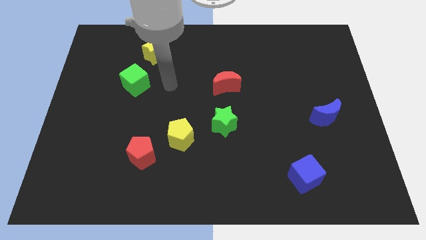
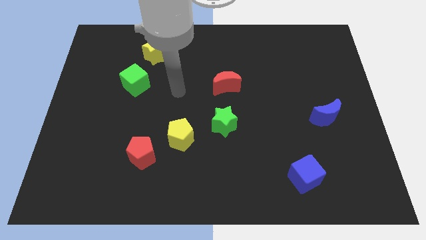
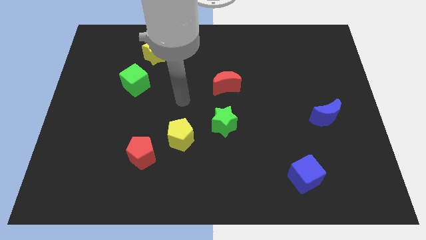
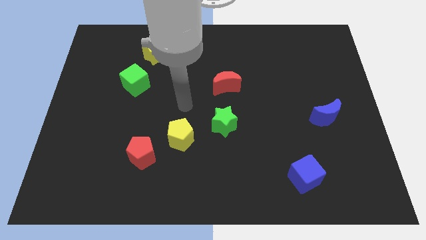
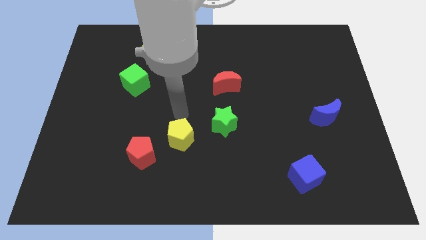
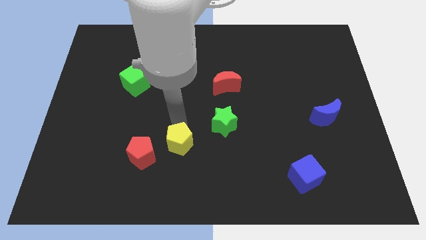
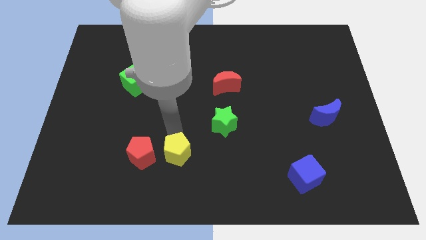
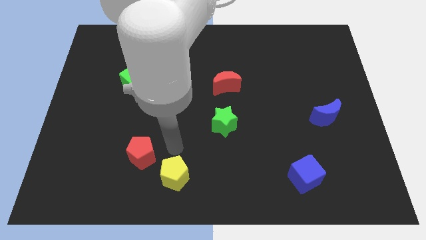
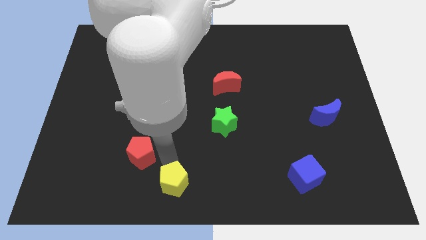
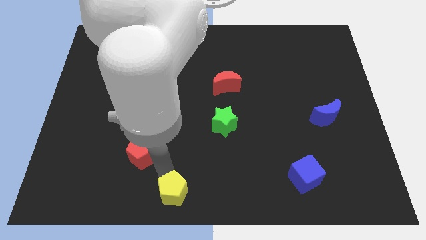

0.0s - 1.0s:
pull the red pentagon apart from the yellow pentagon

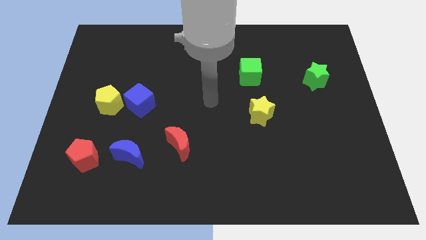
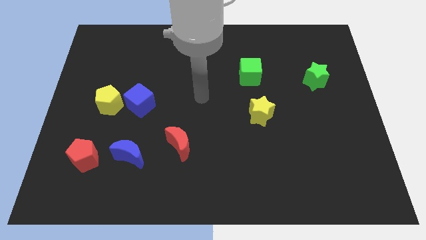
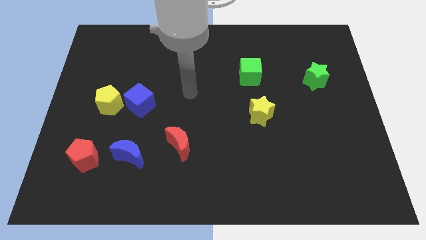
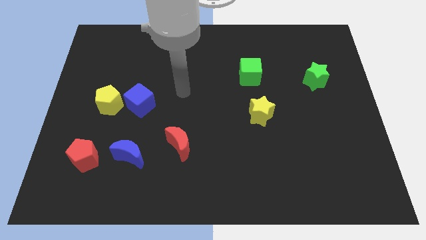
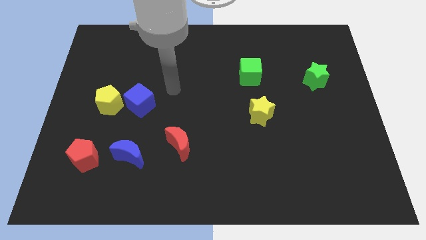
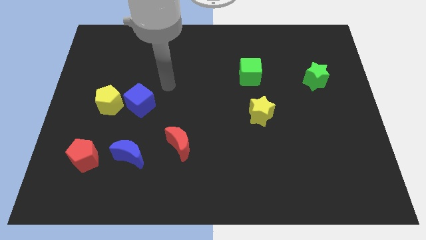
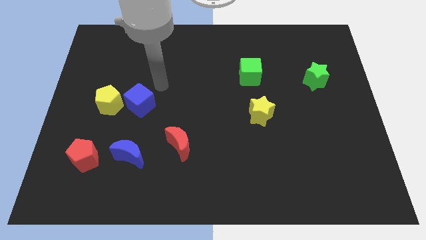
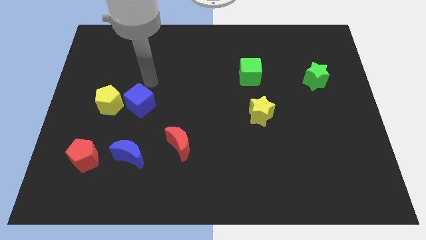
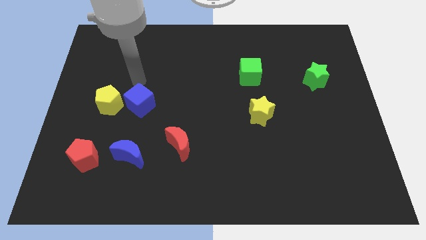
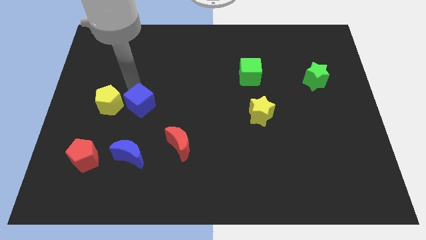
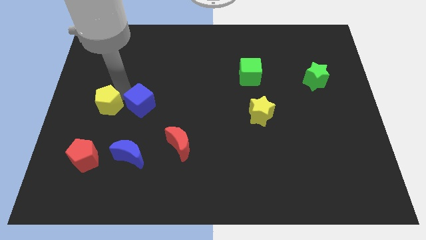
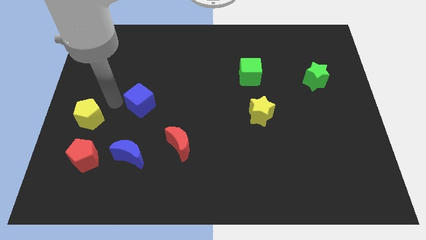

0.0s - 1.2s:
pull the blue cube apart from the yellow pentagon

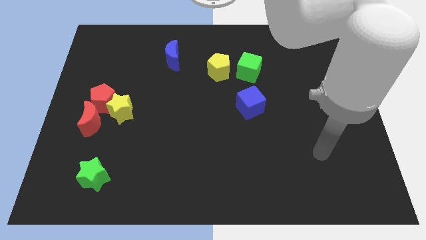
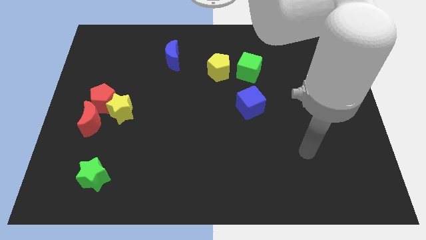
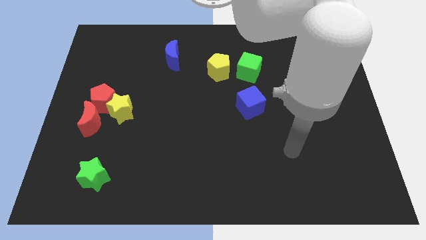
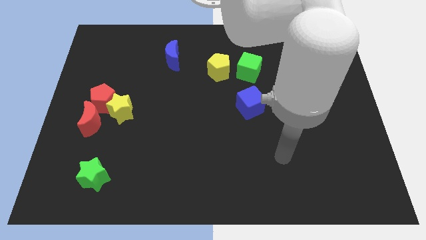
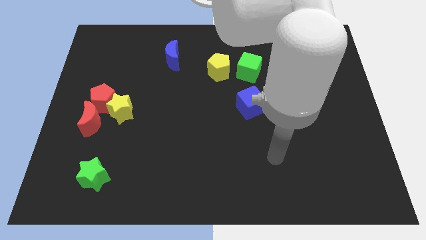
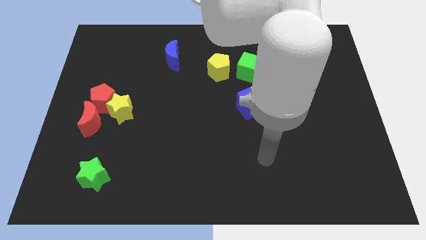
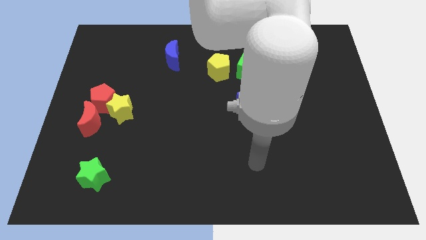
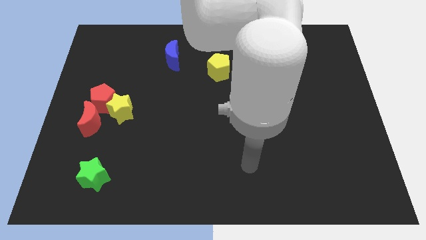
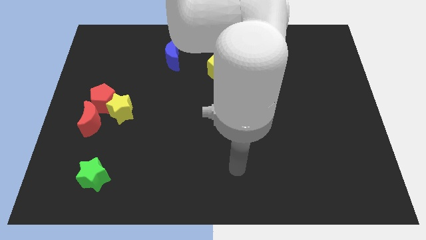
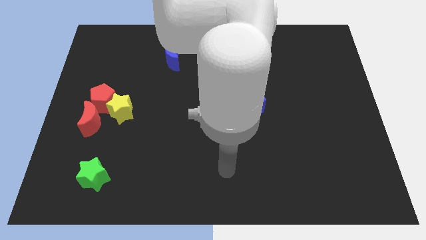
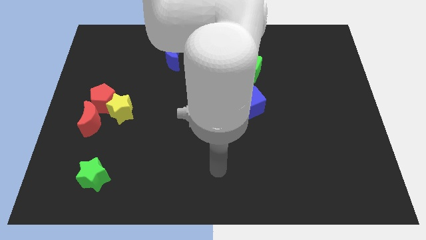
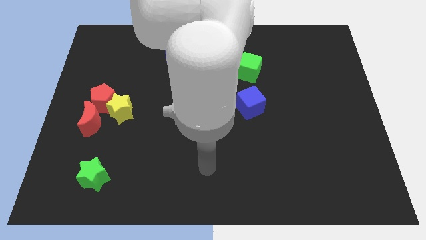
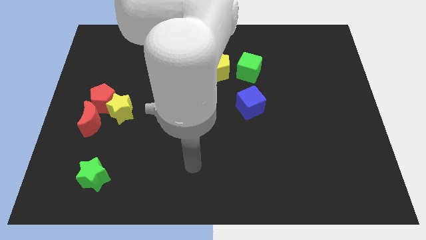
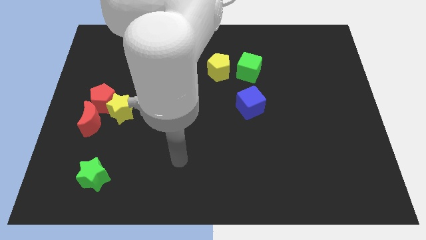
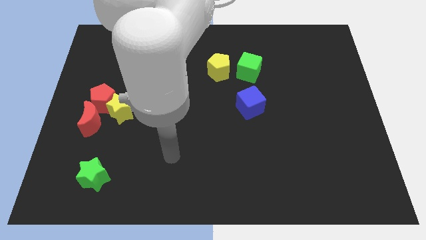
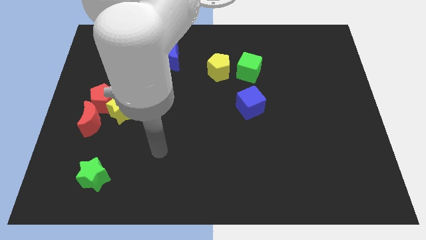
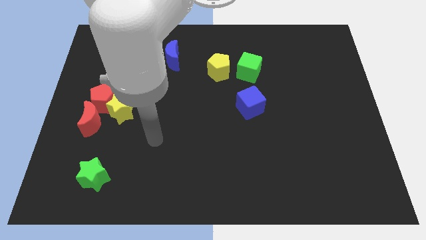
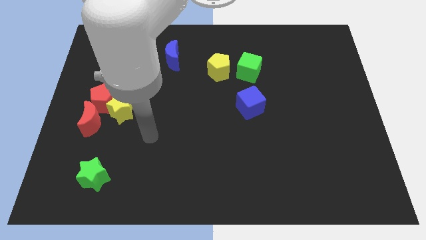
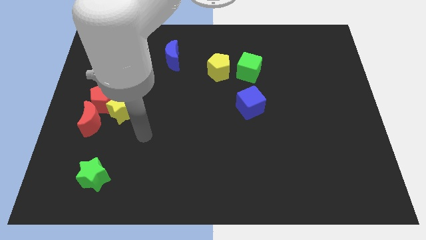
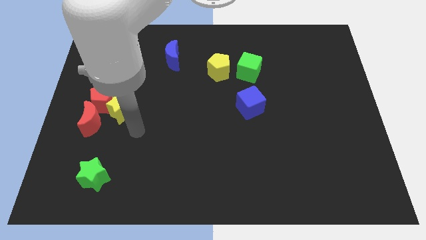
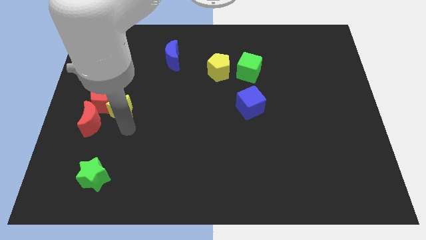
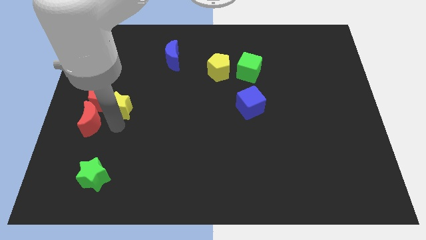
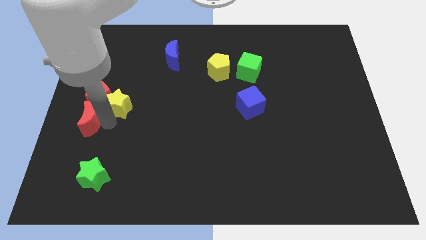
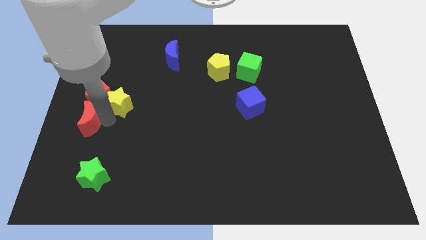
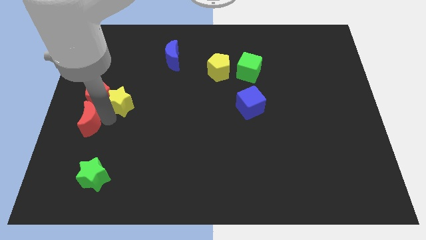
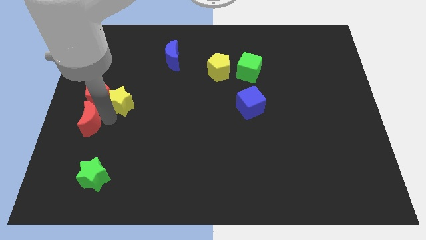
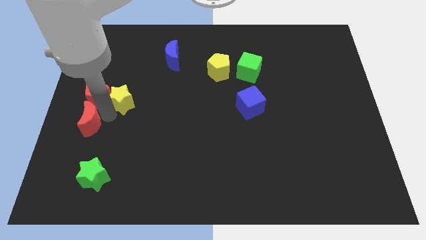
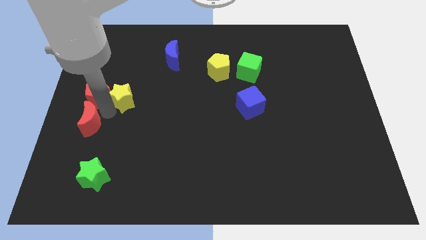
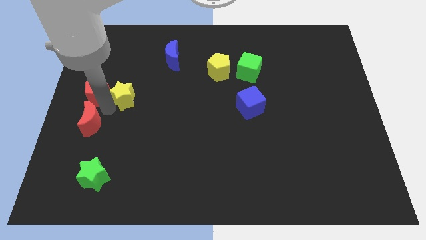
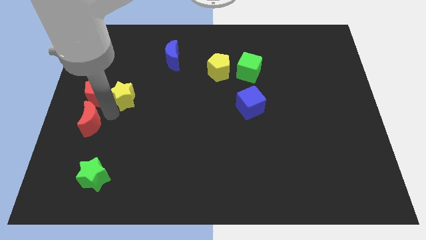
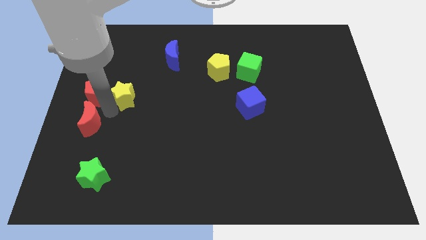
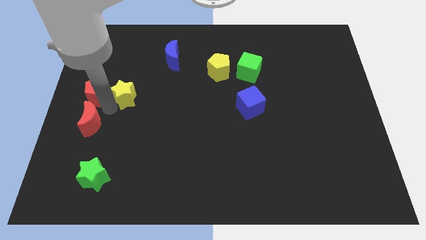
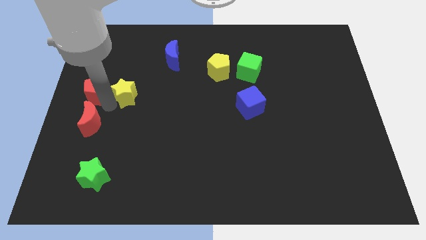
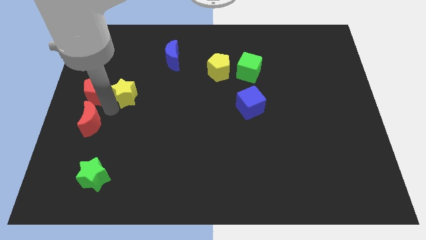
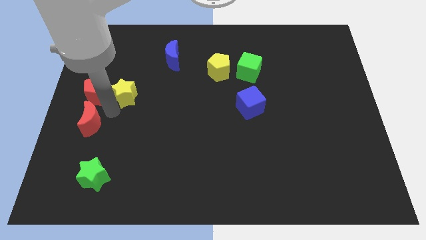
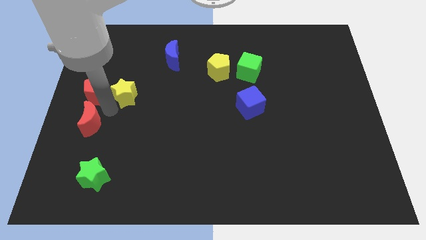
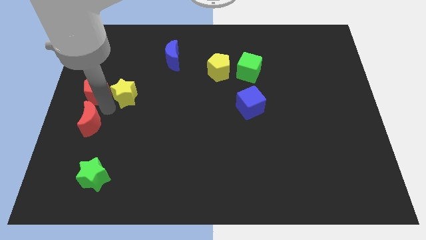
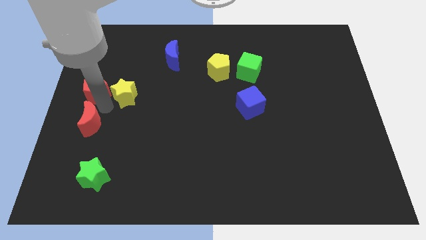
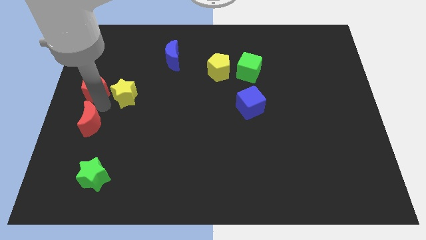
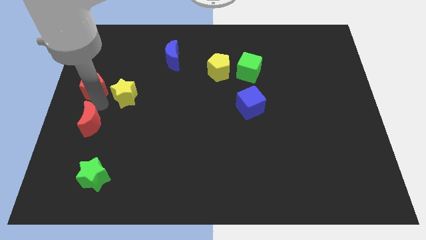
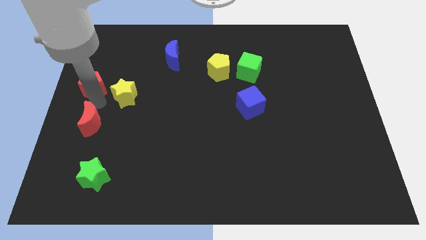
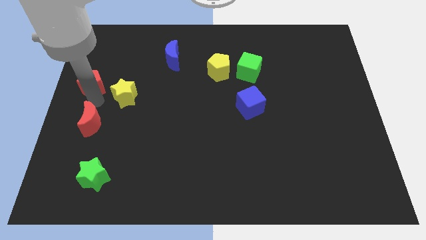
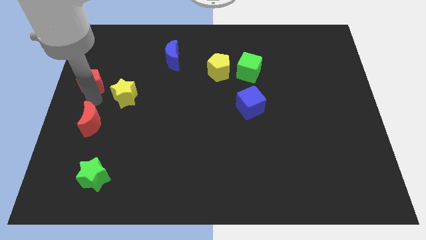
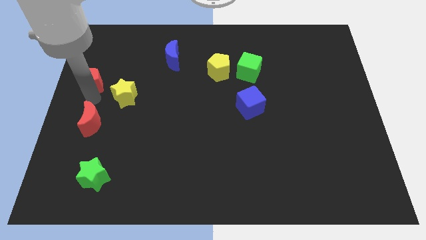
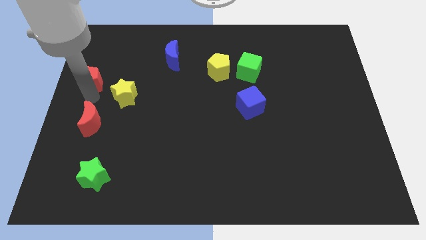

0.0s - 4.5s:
move the red pentagon away from the yellow star and red moon

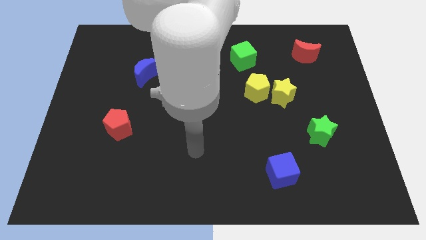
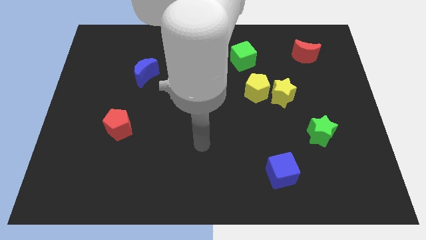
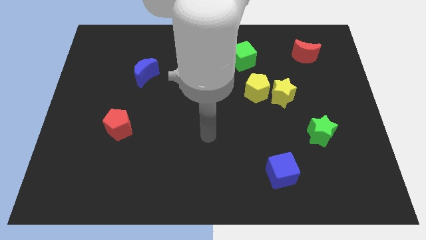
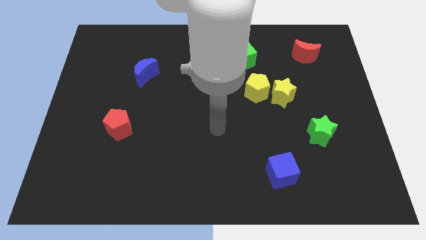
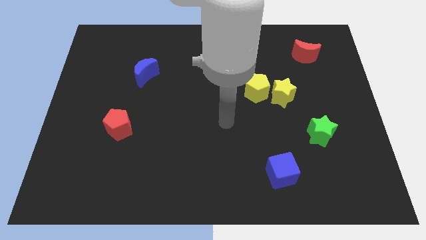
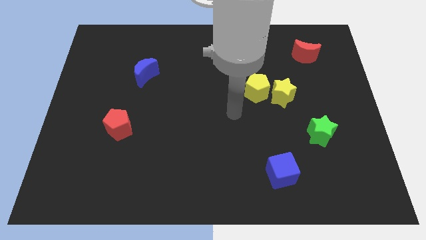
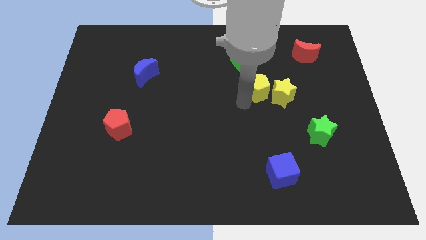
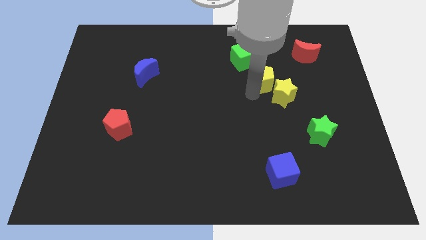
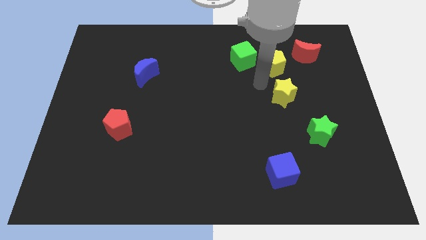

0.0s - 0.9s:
move the yellow star away from the yellow pentagon

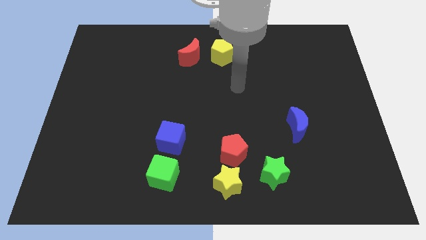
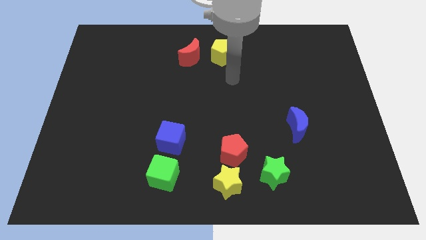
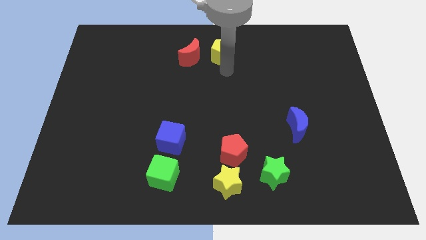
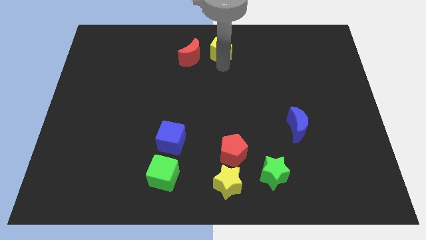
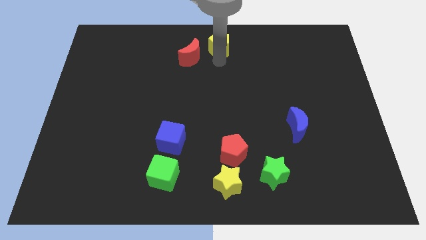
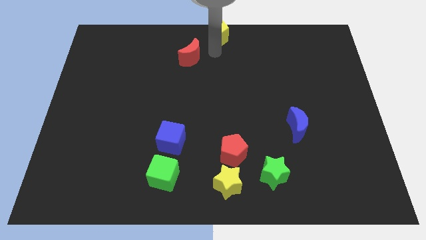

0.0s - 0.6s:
pull the red moon apart from the yellow pentagon

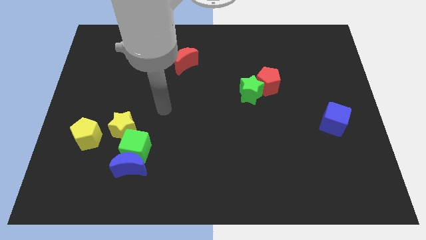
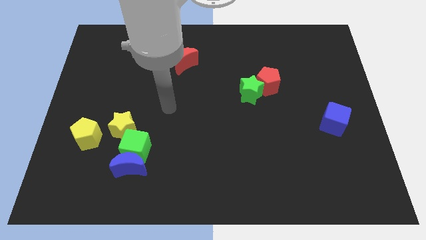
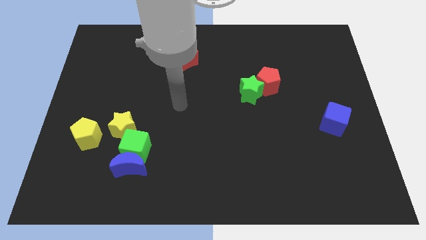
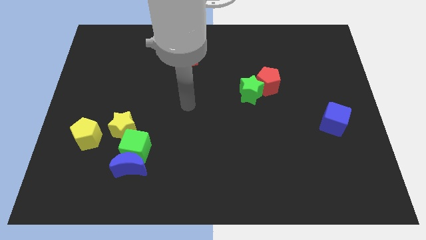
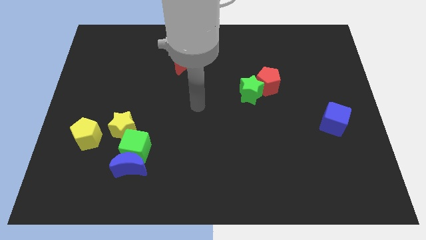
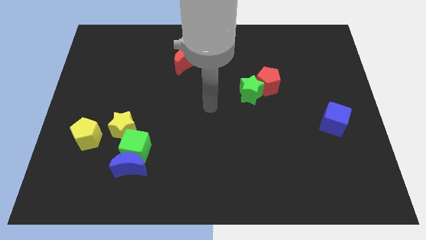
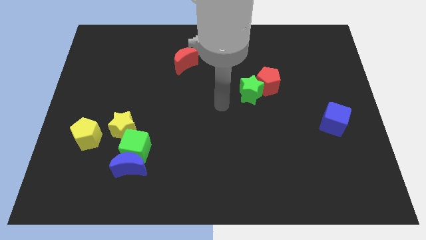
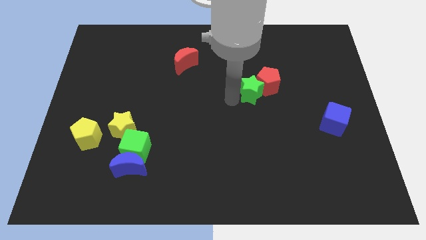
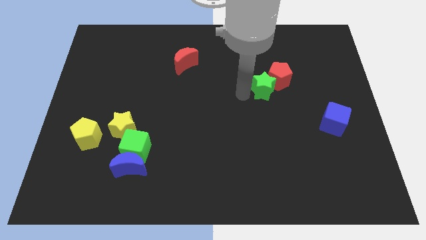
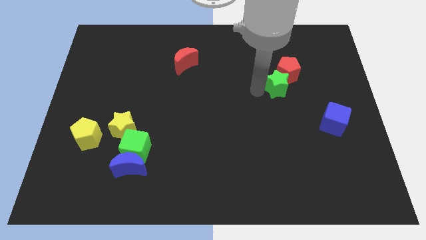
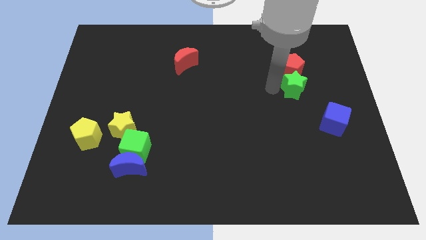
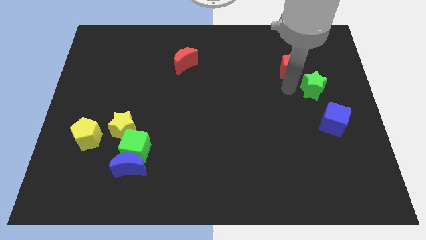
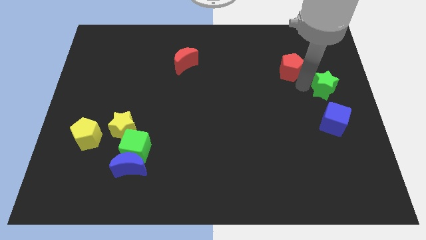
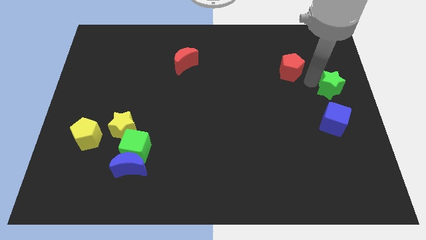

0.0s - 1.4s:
pull the red pentagon apart from the green star
